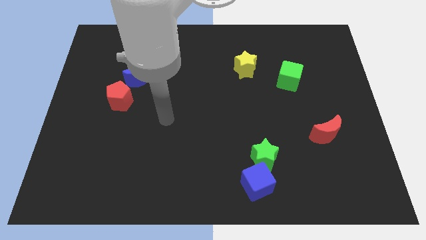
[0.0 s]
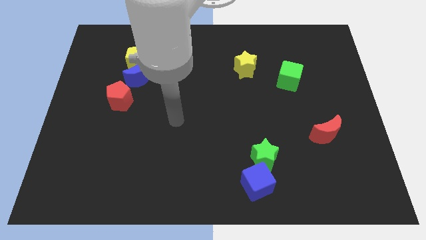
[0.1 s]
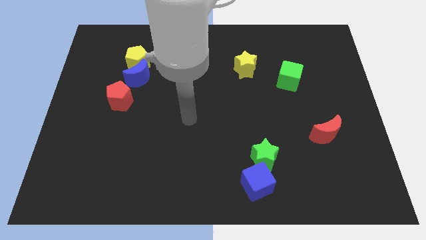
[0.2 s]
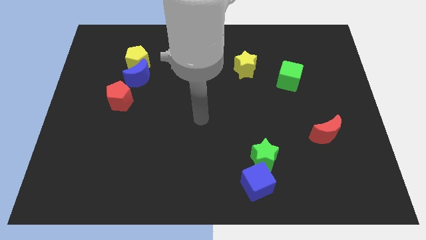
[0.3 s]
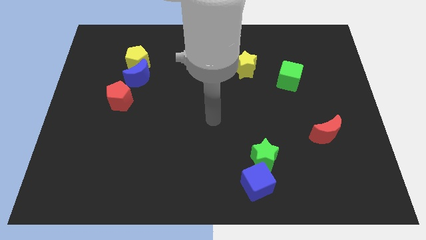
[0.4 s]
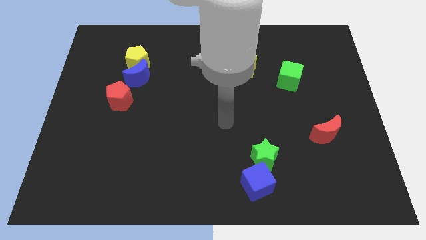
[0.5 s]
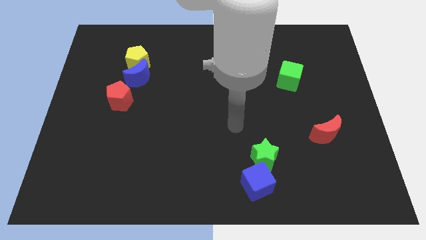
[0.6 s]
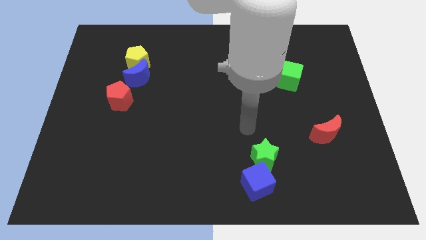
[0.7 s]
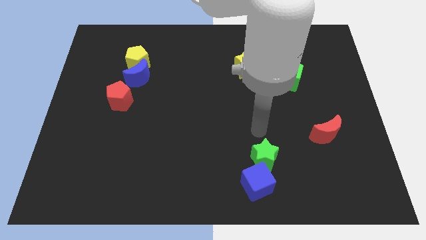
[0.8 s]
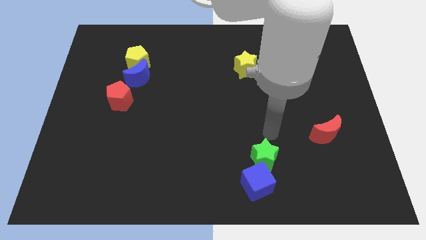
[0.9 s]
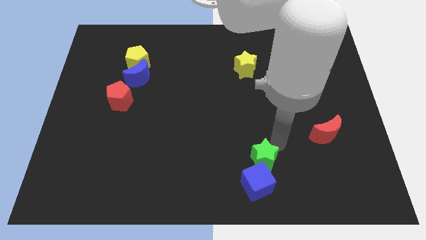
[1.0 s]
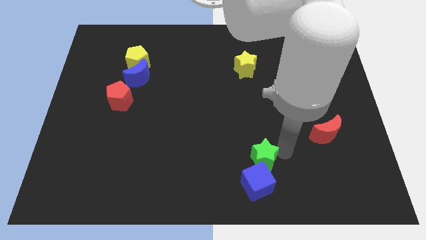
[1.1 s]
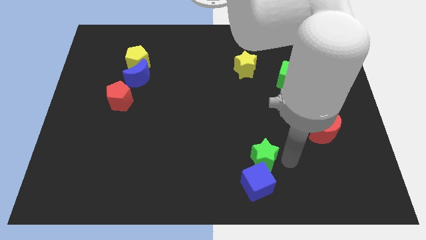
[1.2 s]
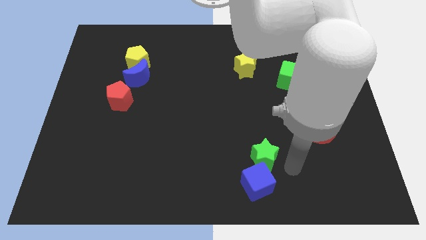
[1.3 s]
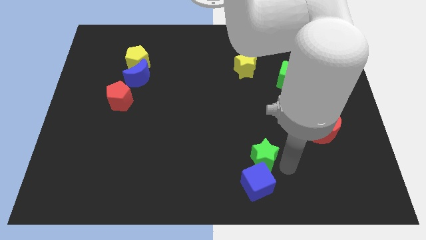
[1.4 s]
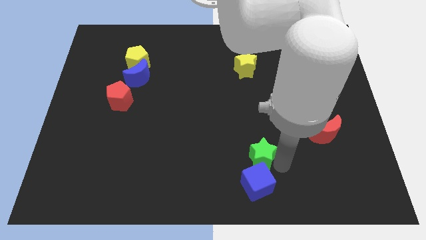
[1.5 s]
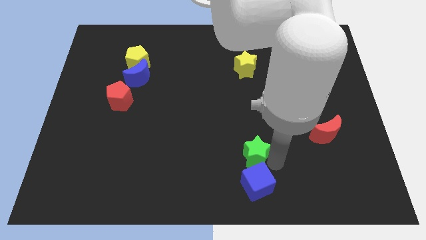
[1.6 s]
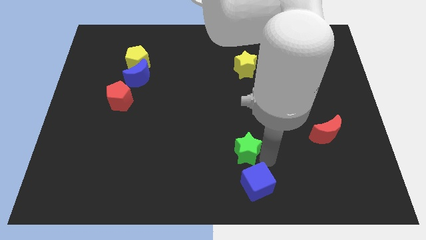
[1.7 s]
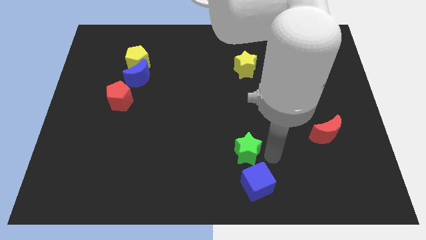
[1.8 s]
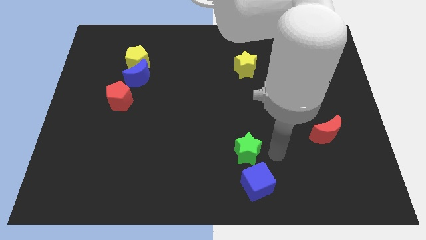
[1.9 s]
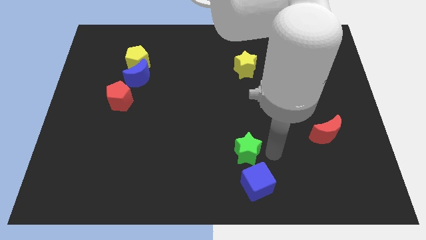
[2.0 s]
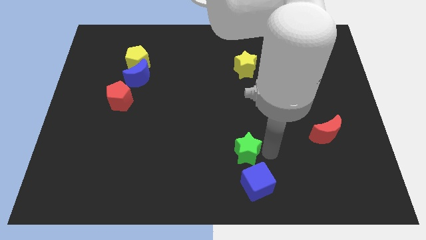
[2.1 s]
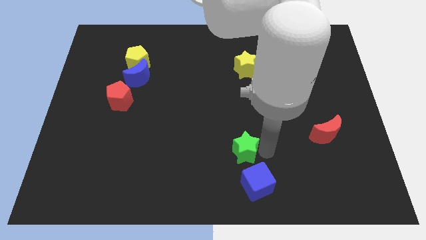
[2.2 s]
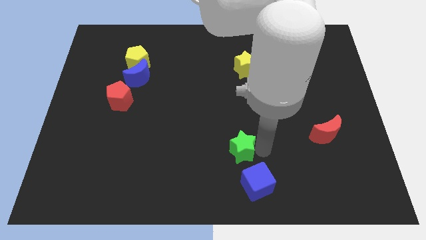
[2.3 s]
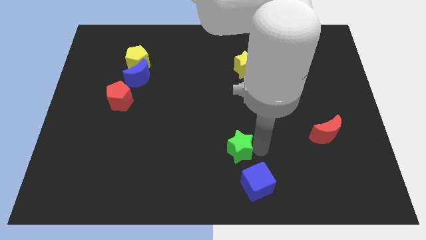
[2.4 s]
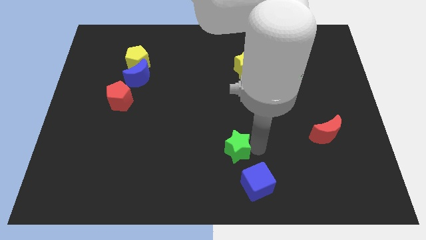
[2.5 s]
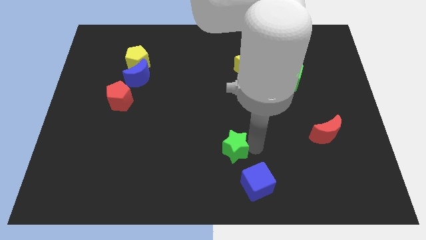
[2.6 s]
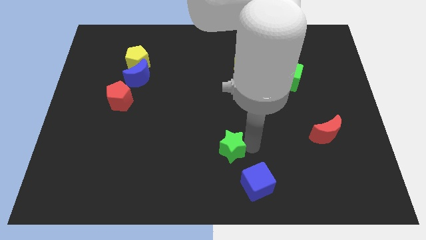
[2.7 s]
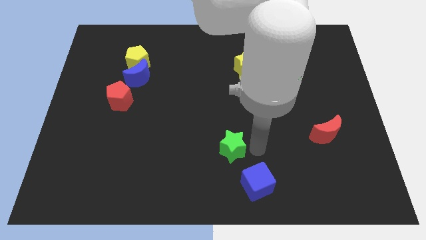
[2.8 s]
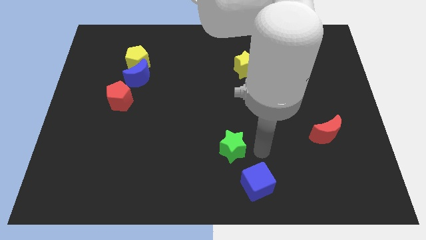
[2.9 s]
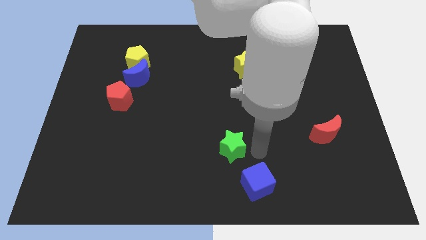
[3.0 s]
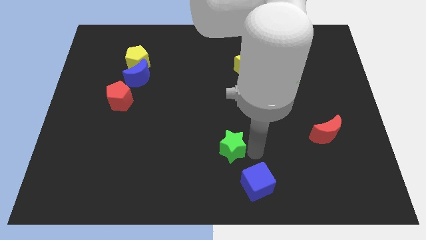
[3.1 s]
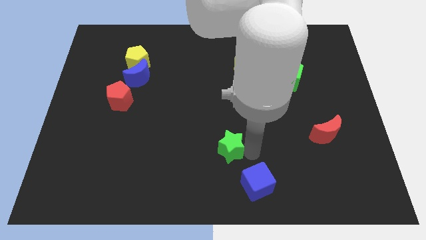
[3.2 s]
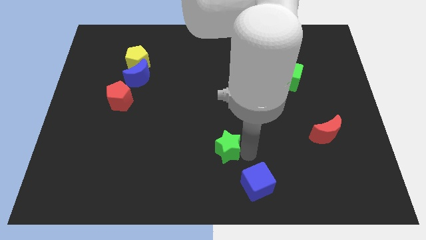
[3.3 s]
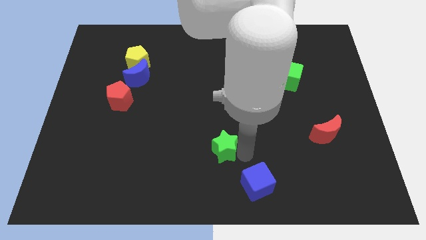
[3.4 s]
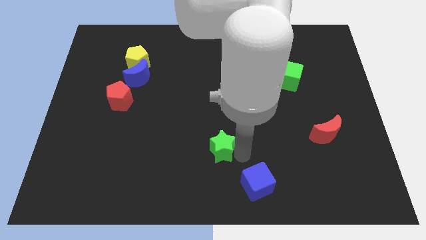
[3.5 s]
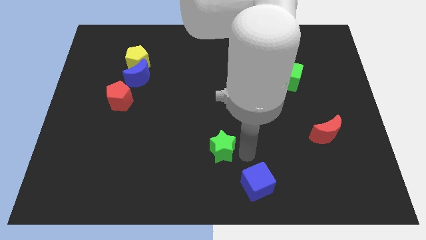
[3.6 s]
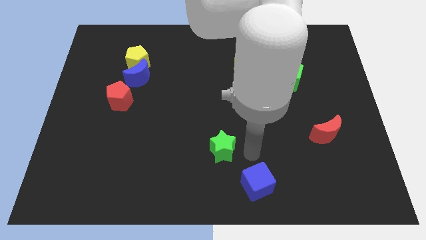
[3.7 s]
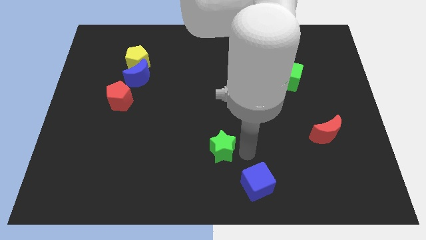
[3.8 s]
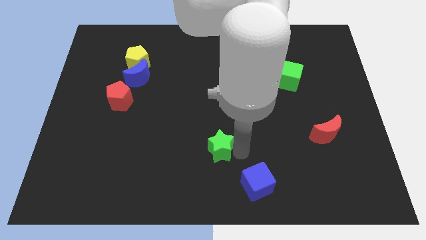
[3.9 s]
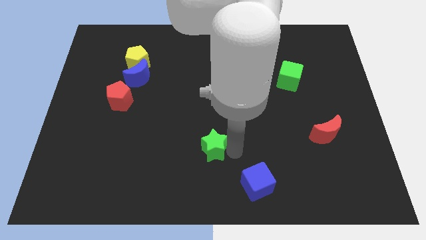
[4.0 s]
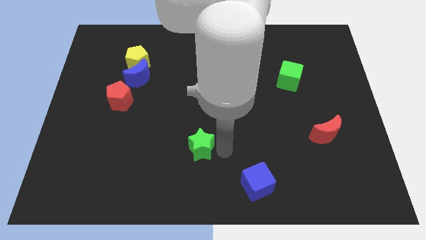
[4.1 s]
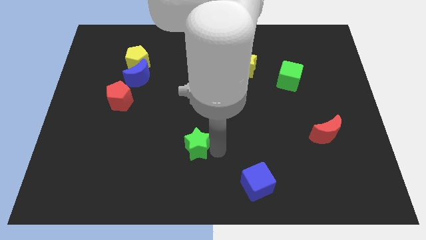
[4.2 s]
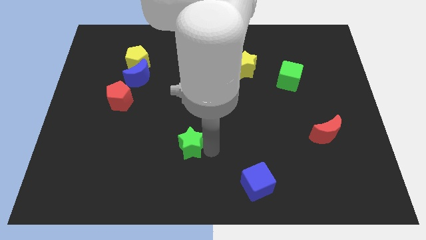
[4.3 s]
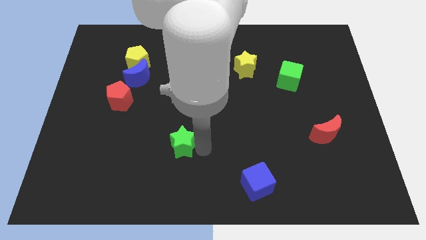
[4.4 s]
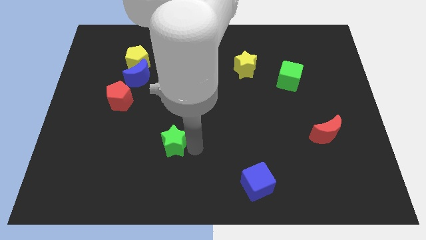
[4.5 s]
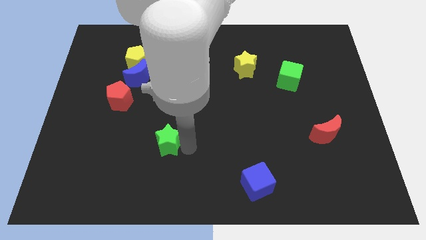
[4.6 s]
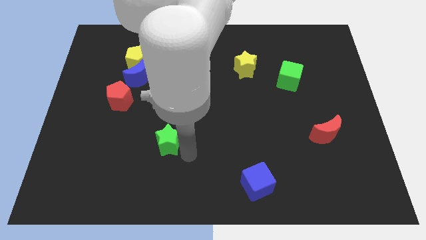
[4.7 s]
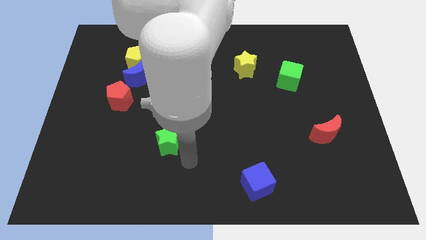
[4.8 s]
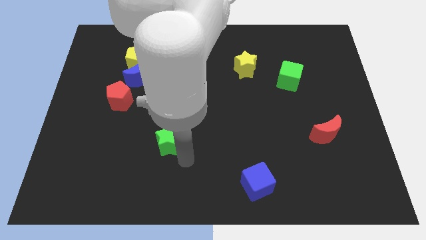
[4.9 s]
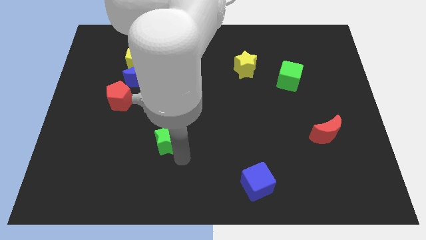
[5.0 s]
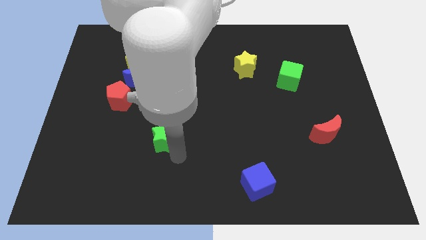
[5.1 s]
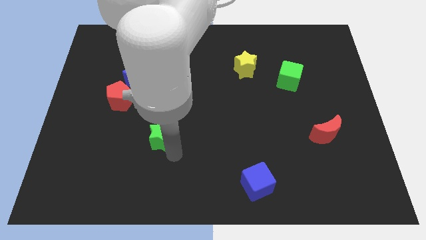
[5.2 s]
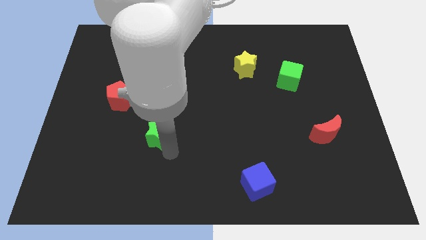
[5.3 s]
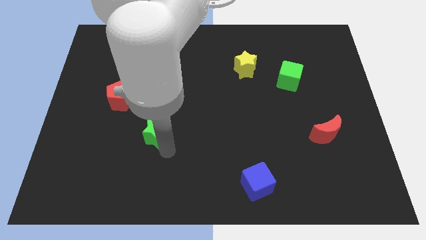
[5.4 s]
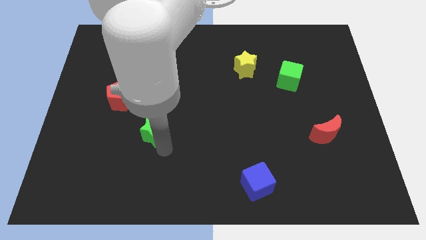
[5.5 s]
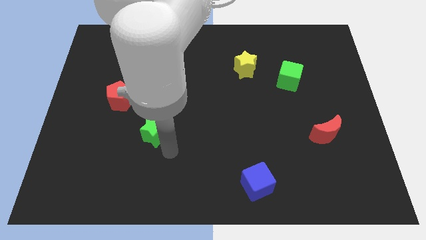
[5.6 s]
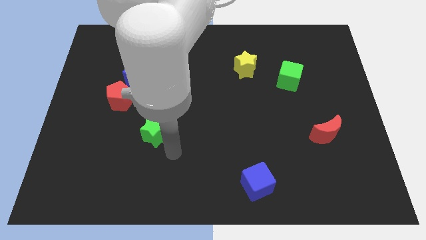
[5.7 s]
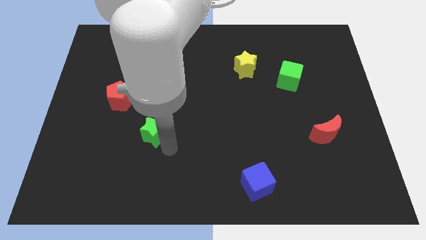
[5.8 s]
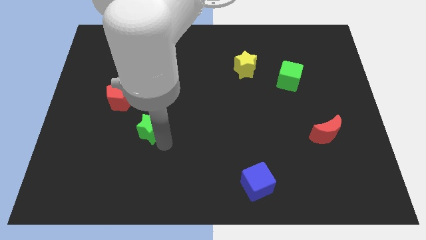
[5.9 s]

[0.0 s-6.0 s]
put the green star diagonally down and to the right of the red pentagon

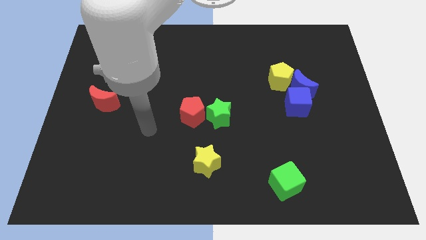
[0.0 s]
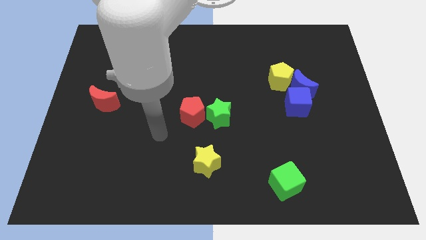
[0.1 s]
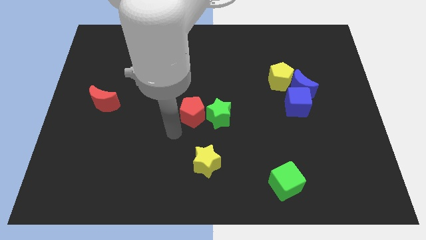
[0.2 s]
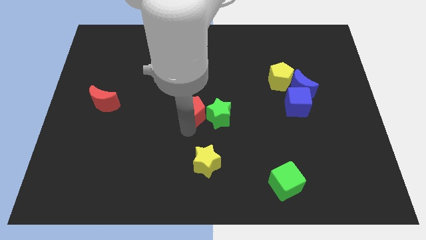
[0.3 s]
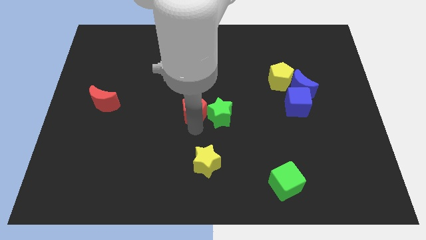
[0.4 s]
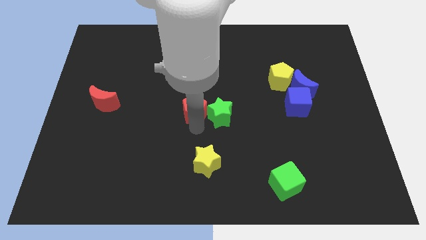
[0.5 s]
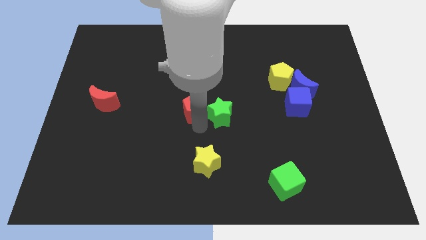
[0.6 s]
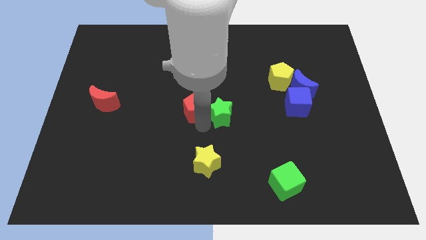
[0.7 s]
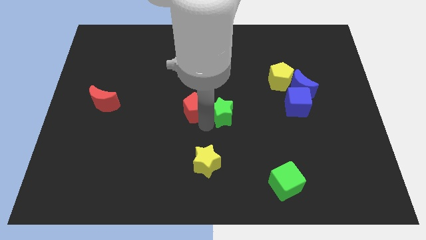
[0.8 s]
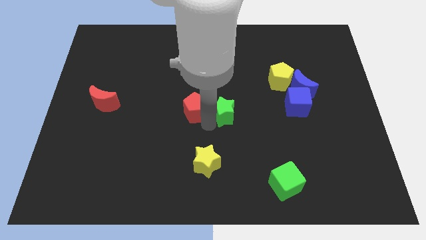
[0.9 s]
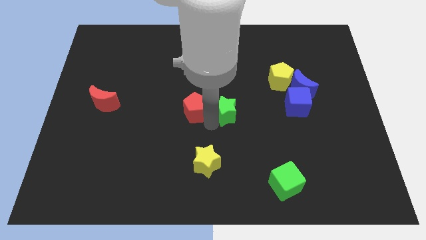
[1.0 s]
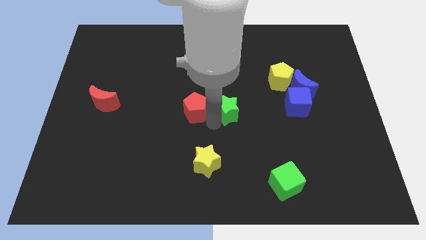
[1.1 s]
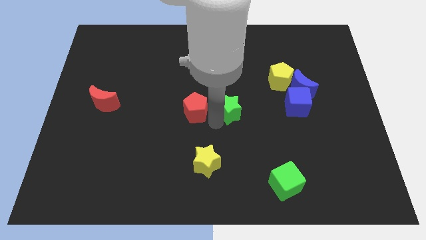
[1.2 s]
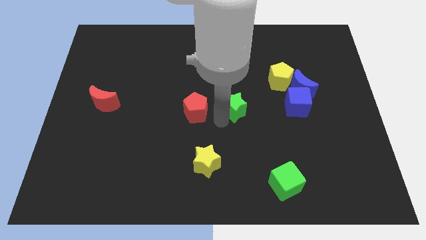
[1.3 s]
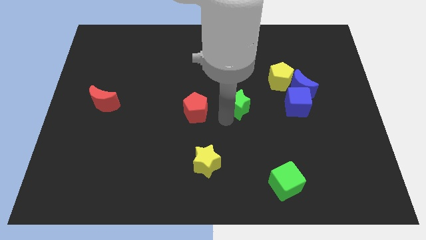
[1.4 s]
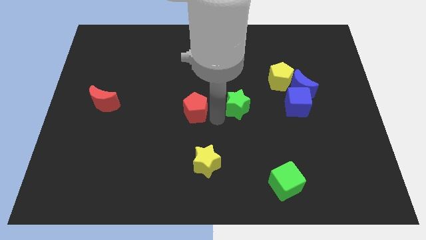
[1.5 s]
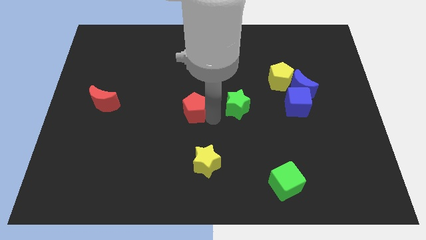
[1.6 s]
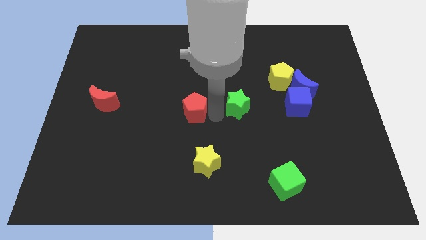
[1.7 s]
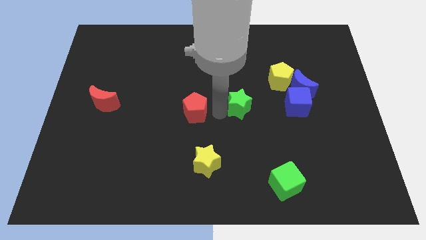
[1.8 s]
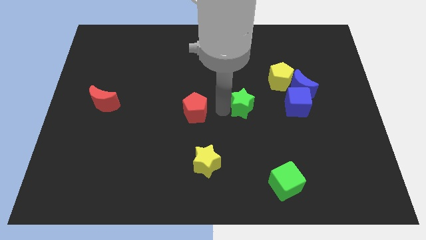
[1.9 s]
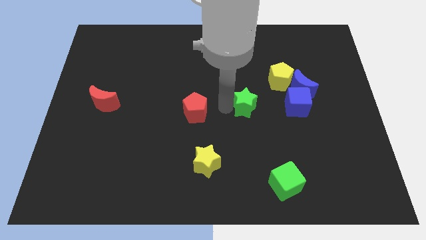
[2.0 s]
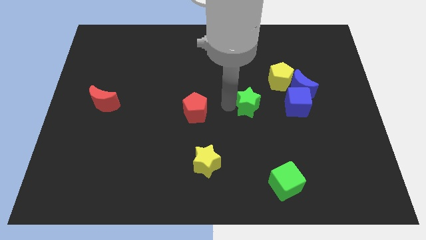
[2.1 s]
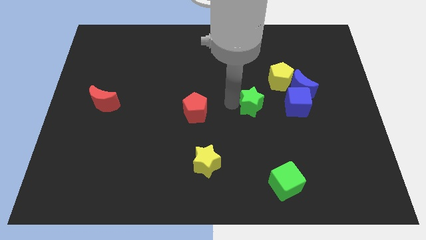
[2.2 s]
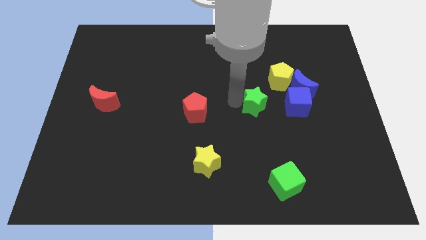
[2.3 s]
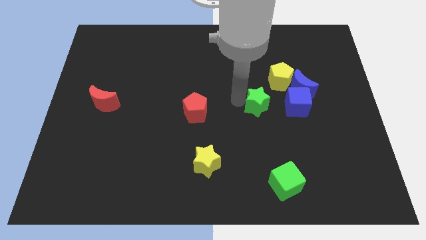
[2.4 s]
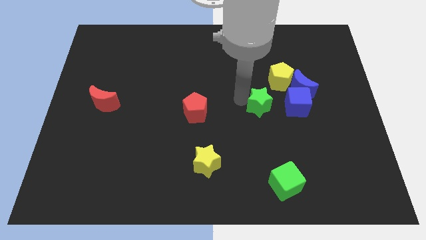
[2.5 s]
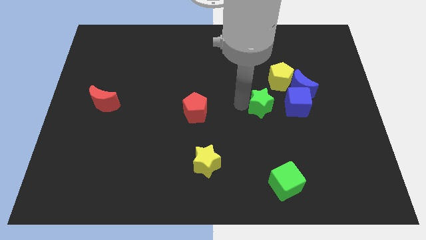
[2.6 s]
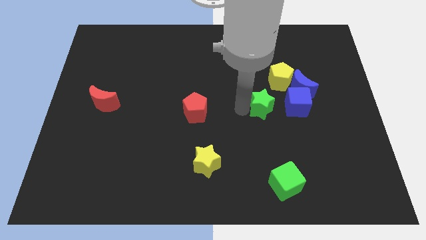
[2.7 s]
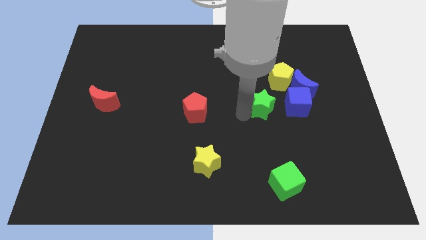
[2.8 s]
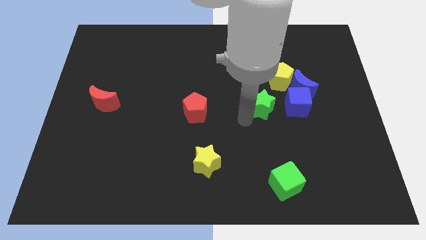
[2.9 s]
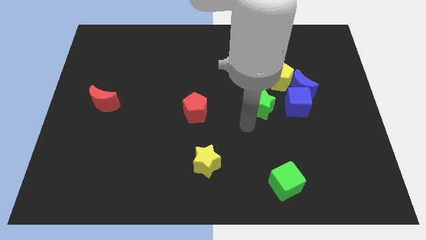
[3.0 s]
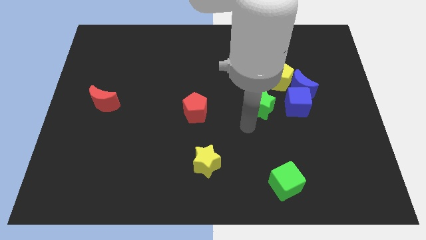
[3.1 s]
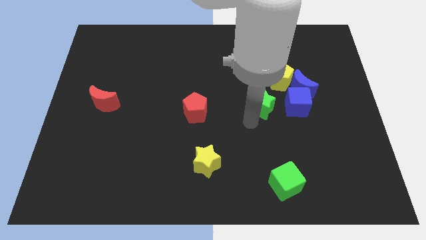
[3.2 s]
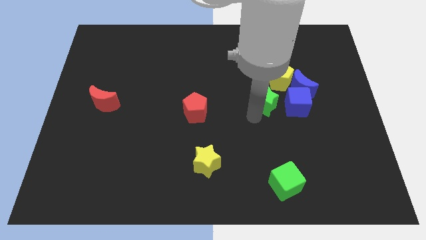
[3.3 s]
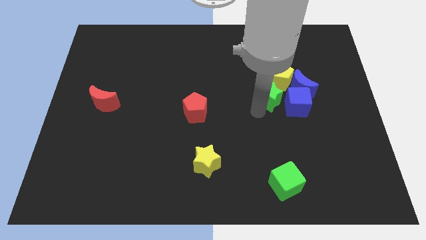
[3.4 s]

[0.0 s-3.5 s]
slide the green star diagonally up and to the left of the blue cube
